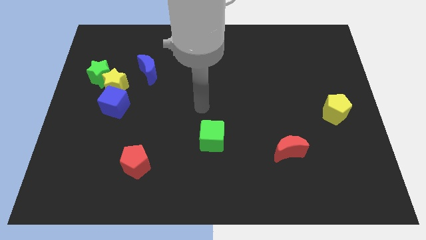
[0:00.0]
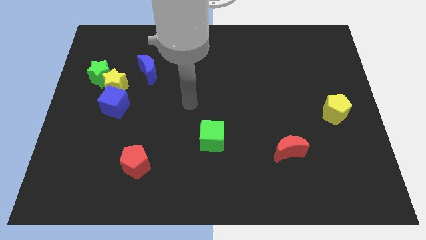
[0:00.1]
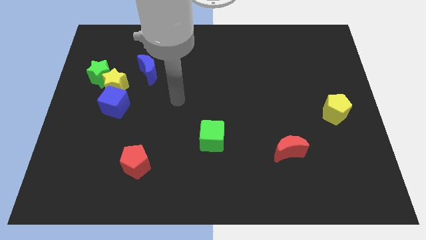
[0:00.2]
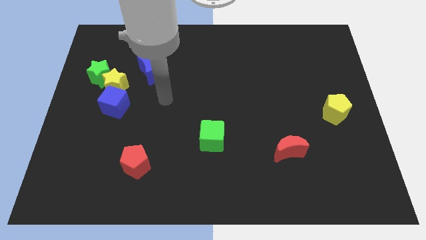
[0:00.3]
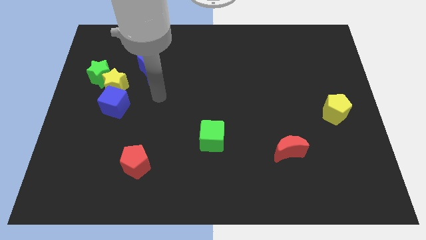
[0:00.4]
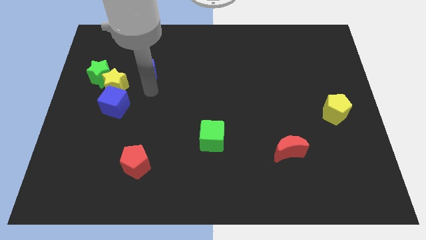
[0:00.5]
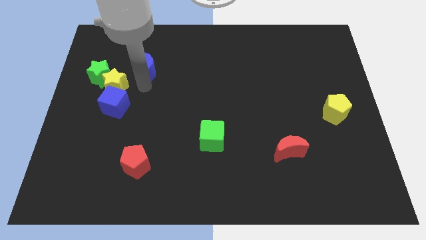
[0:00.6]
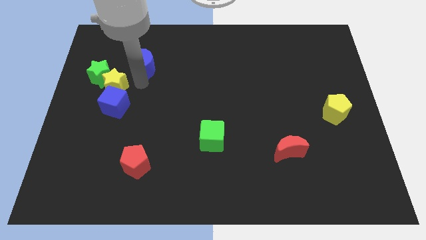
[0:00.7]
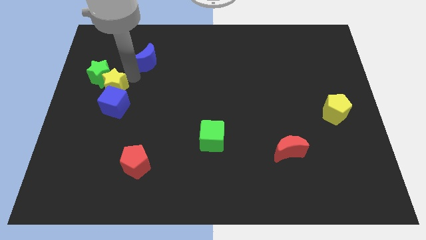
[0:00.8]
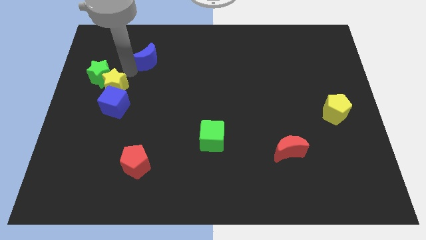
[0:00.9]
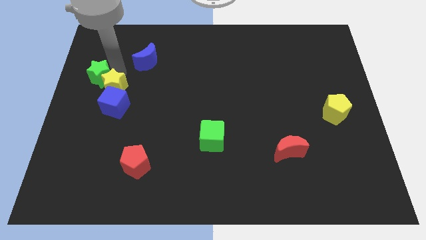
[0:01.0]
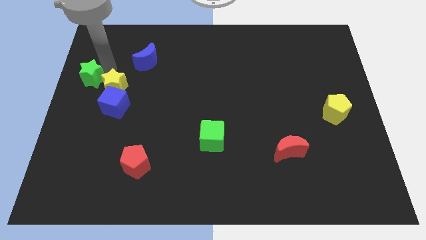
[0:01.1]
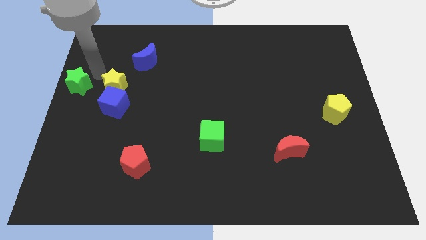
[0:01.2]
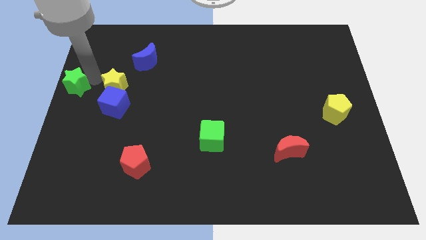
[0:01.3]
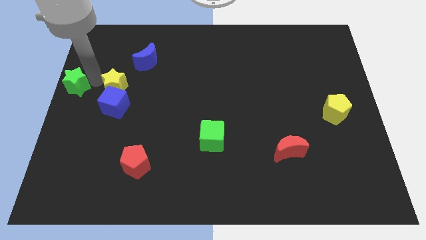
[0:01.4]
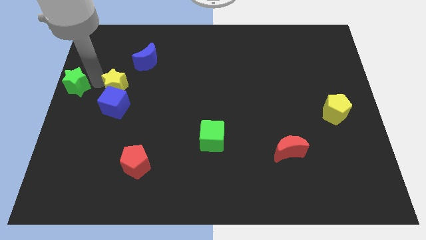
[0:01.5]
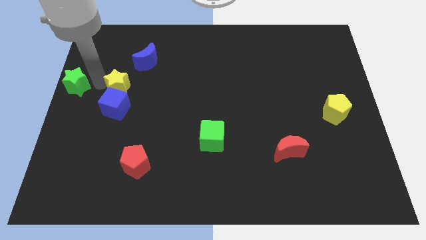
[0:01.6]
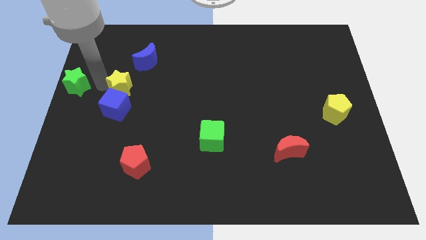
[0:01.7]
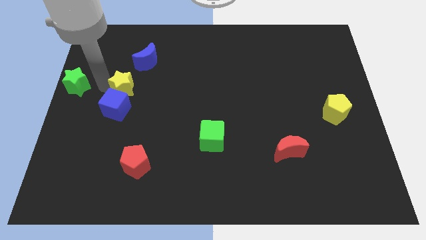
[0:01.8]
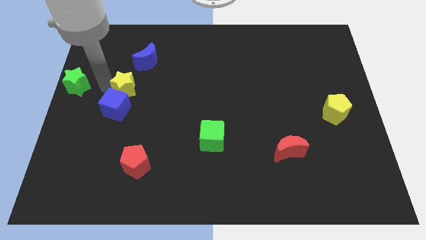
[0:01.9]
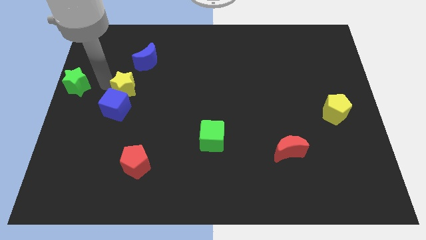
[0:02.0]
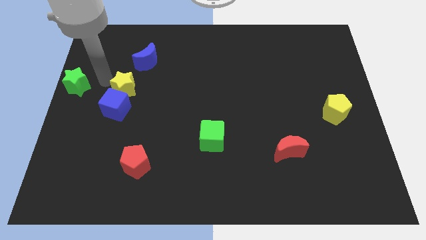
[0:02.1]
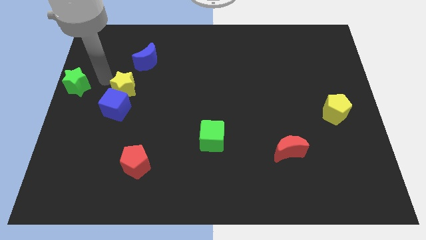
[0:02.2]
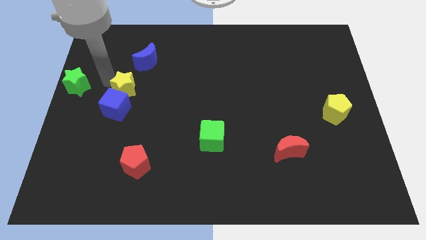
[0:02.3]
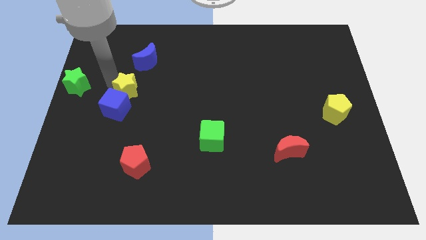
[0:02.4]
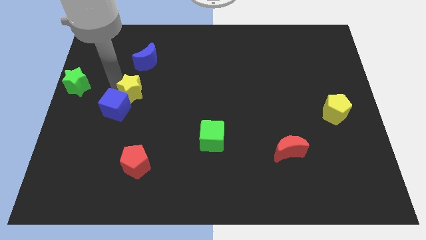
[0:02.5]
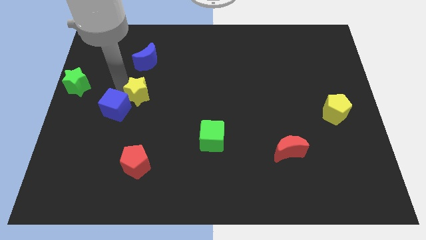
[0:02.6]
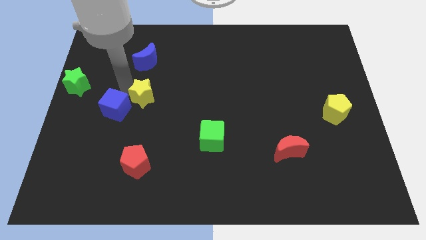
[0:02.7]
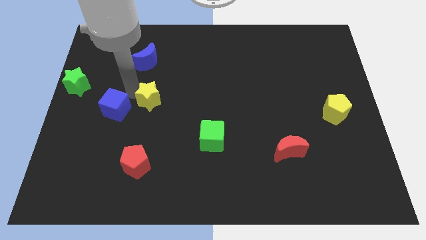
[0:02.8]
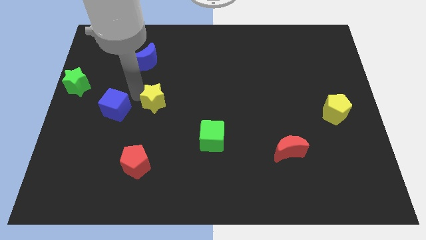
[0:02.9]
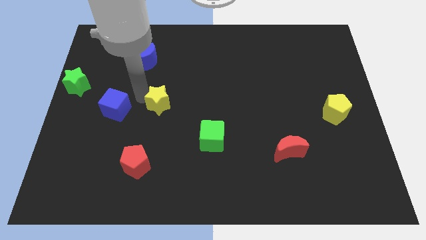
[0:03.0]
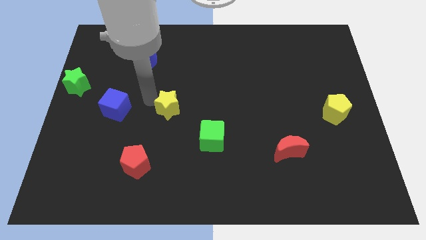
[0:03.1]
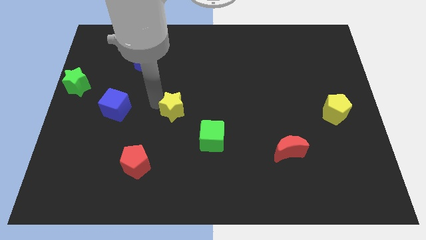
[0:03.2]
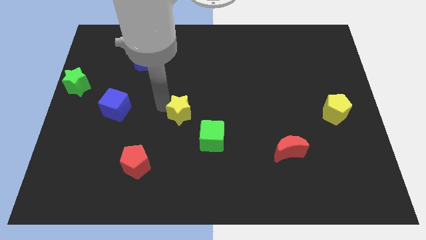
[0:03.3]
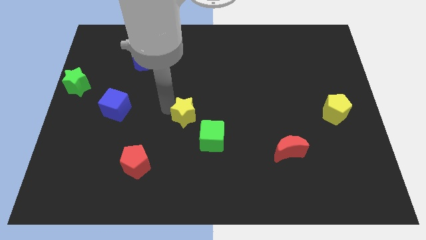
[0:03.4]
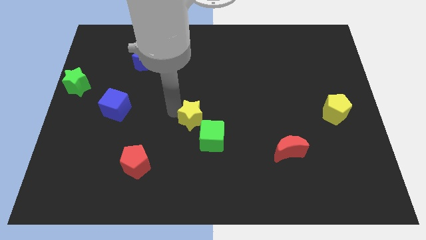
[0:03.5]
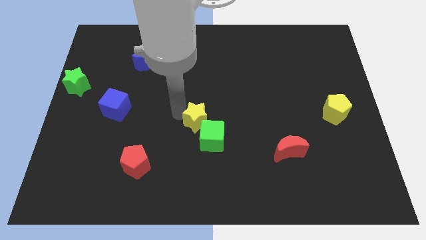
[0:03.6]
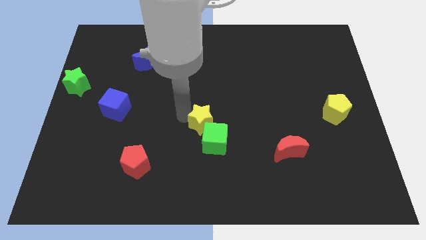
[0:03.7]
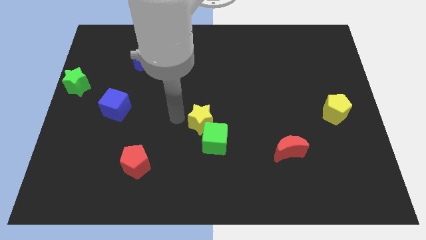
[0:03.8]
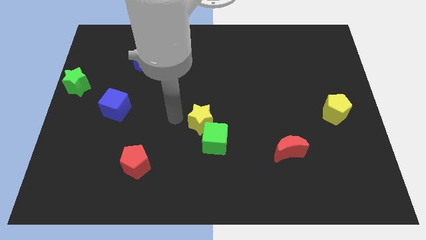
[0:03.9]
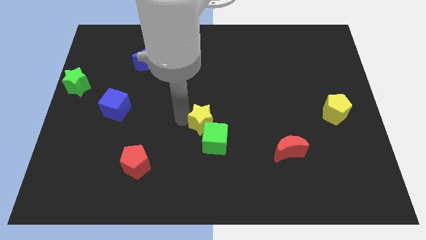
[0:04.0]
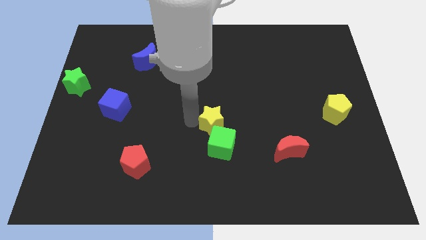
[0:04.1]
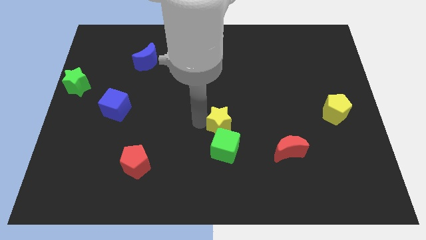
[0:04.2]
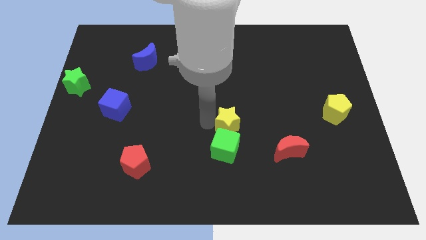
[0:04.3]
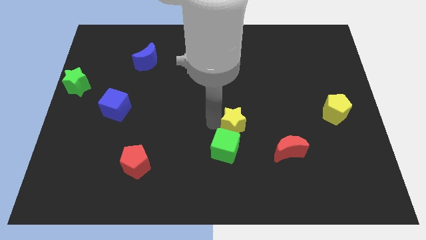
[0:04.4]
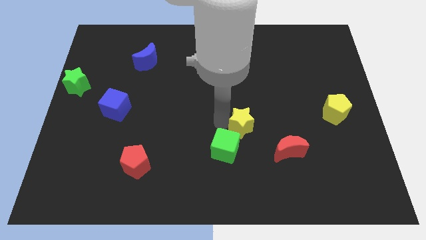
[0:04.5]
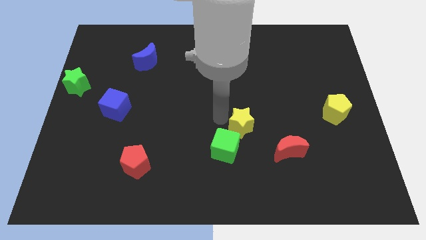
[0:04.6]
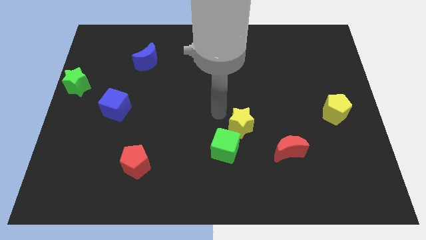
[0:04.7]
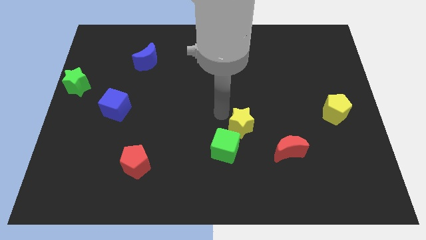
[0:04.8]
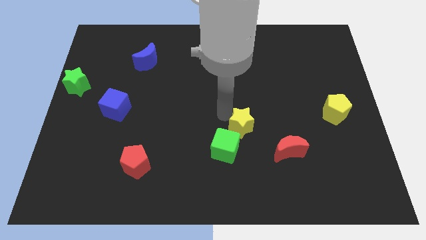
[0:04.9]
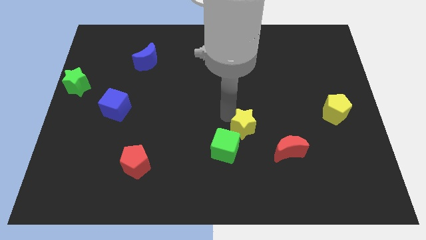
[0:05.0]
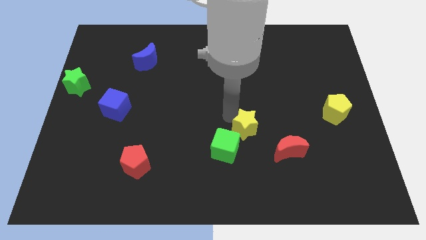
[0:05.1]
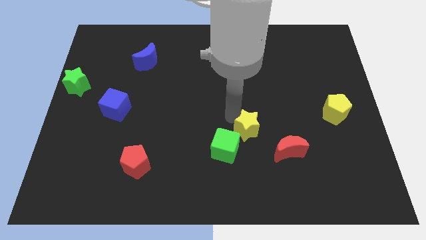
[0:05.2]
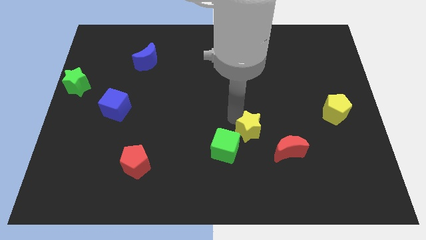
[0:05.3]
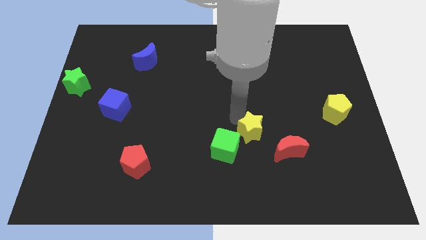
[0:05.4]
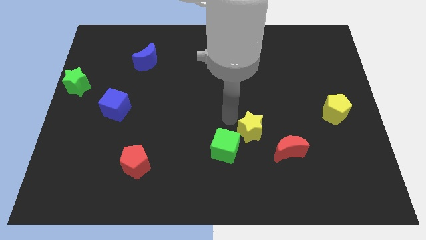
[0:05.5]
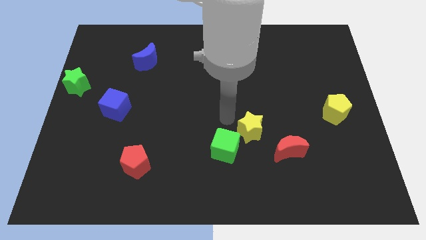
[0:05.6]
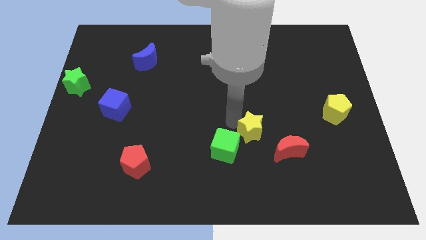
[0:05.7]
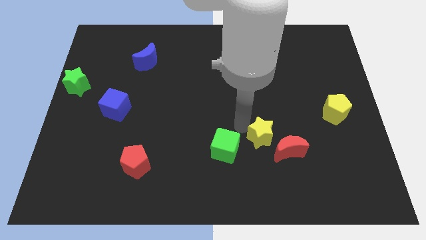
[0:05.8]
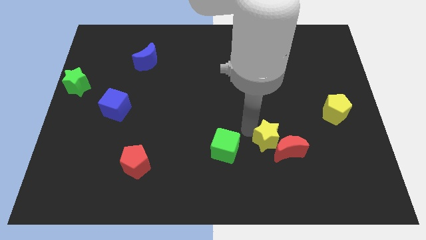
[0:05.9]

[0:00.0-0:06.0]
move the yellow star towards the red moon

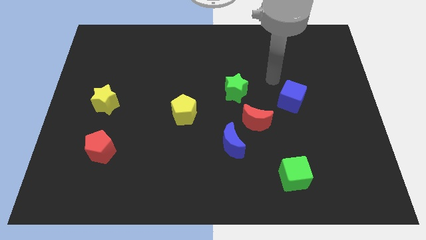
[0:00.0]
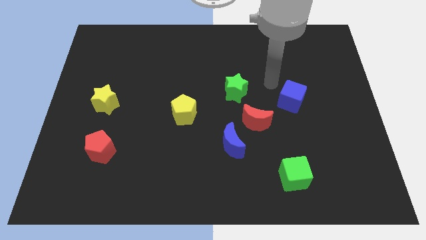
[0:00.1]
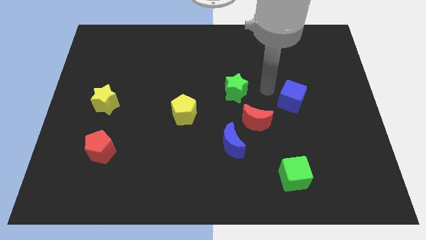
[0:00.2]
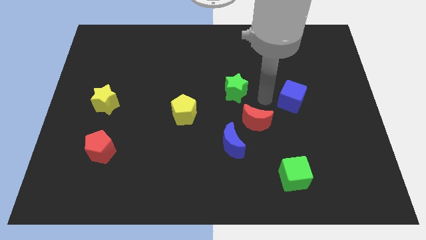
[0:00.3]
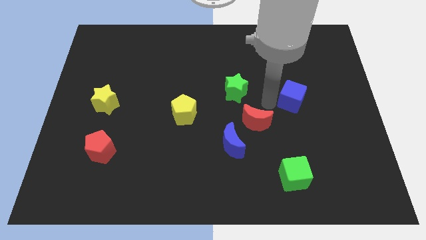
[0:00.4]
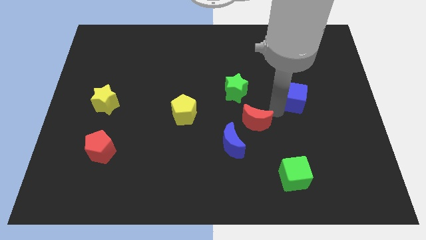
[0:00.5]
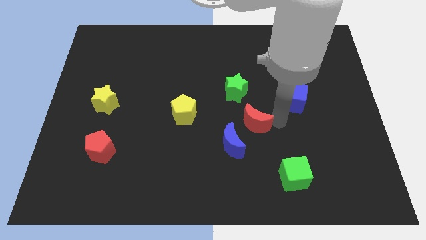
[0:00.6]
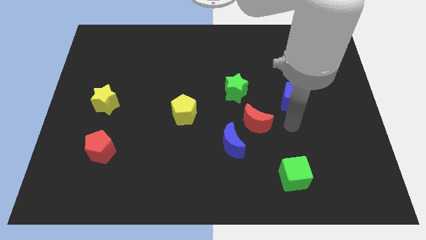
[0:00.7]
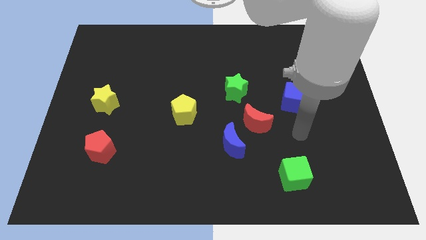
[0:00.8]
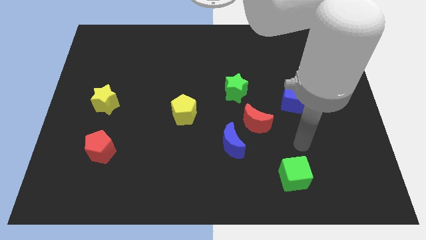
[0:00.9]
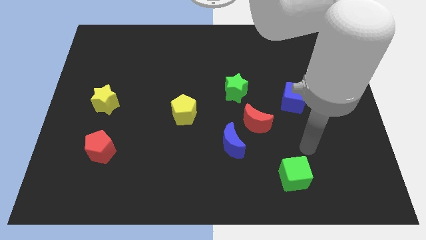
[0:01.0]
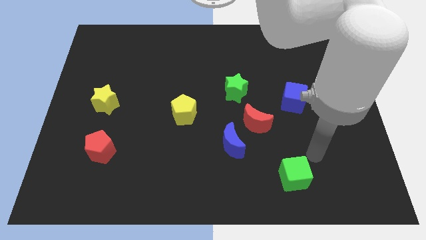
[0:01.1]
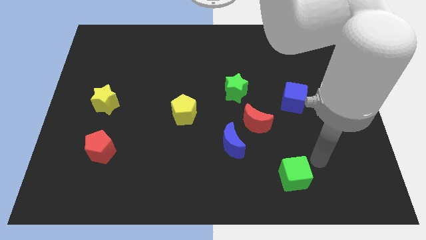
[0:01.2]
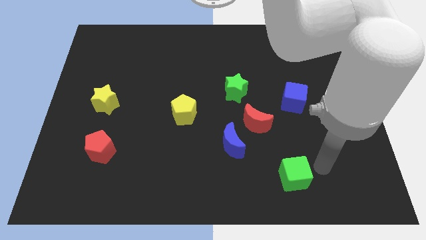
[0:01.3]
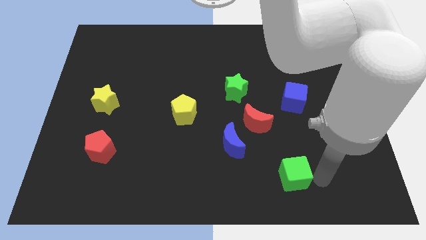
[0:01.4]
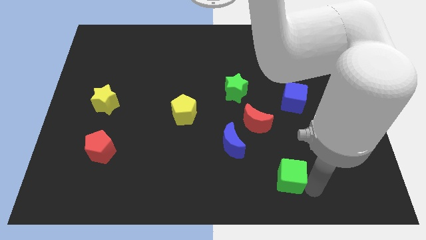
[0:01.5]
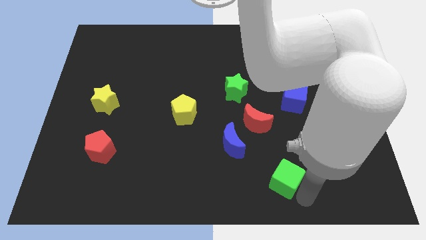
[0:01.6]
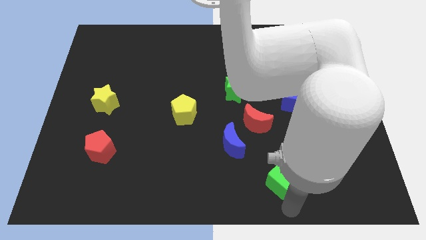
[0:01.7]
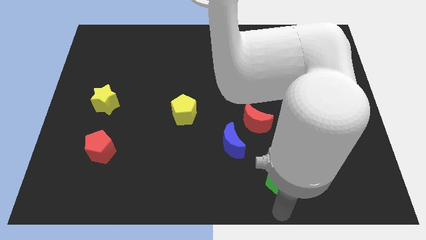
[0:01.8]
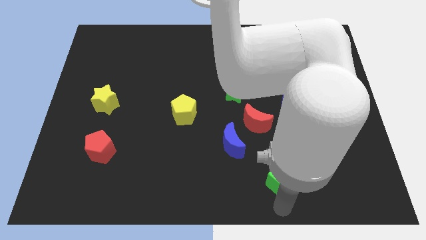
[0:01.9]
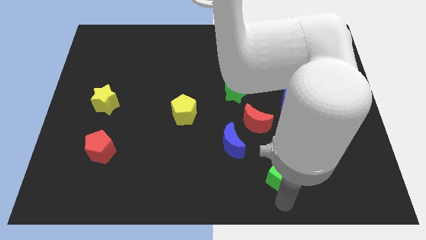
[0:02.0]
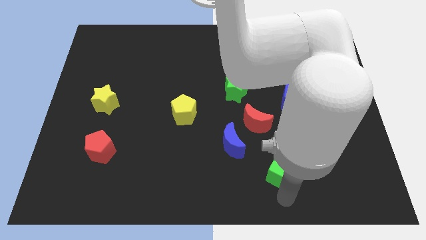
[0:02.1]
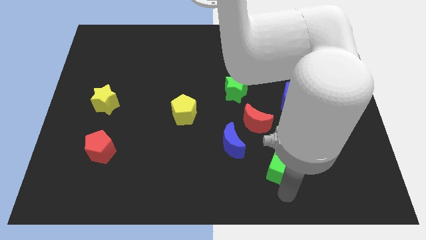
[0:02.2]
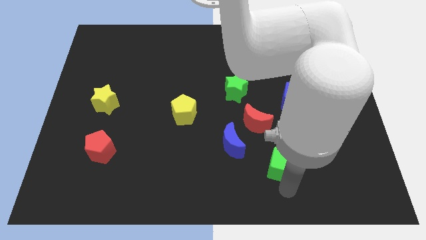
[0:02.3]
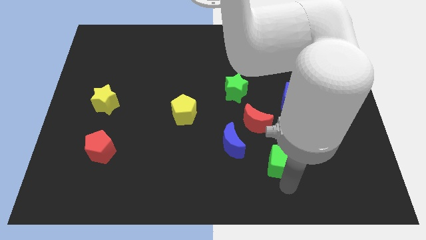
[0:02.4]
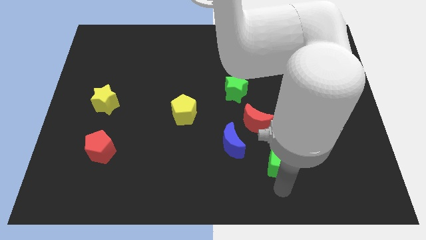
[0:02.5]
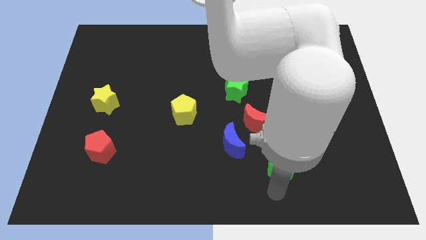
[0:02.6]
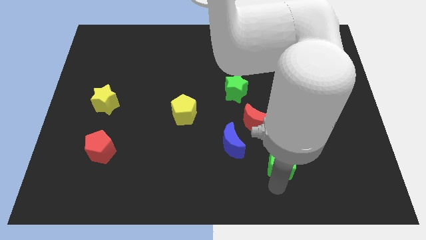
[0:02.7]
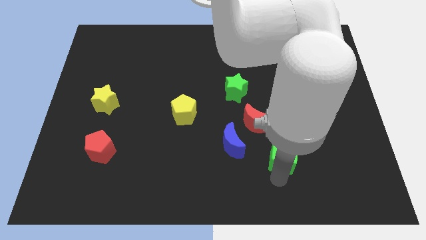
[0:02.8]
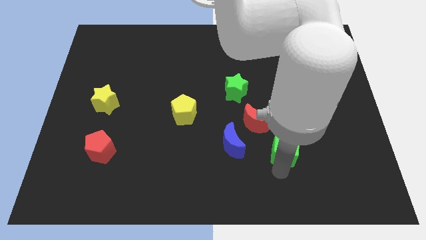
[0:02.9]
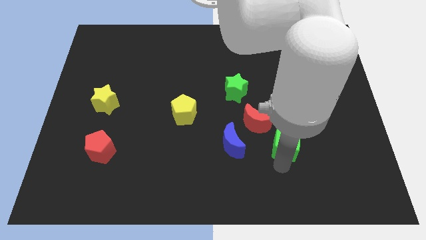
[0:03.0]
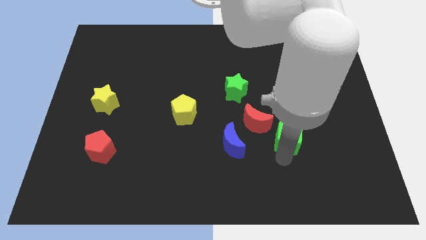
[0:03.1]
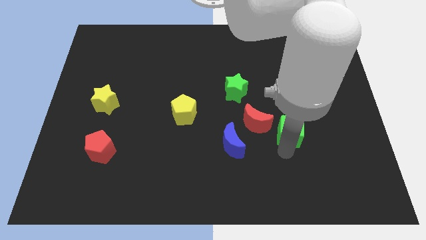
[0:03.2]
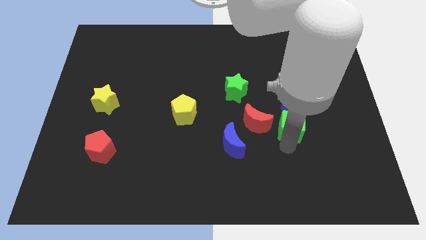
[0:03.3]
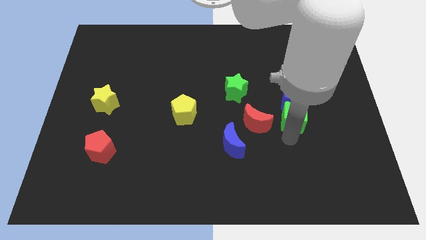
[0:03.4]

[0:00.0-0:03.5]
put the green cube to the blue cube
